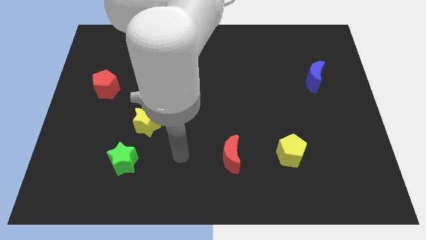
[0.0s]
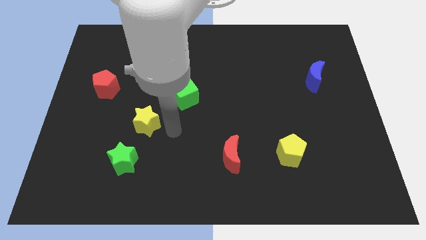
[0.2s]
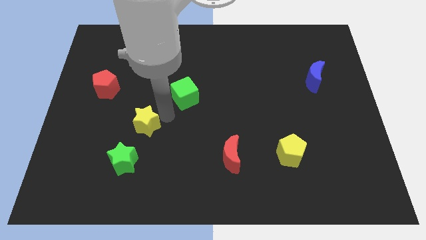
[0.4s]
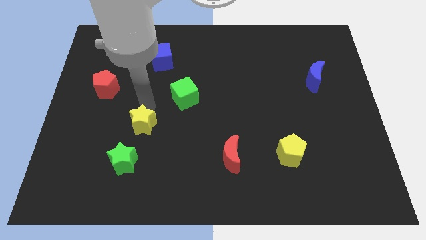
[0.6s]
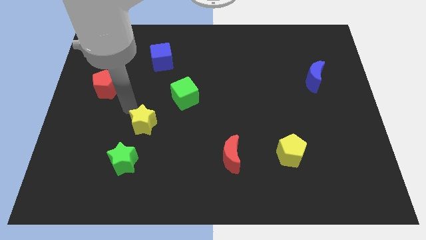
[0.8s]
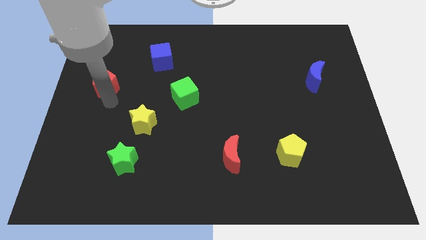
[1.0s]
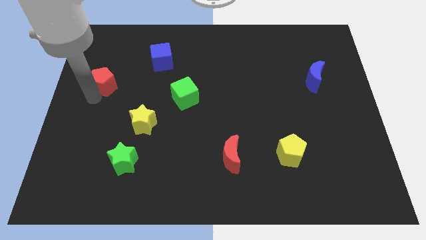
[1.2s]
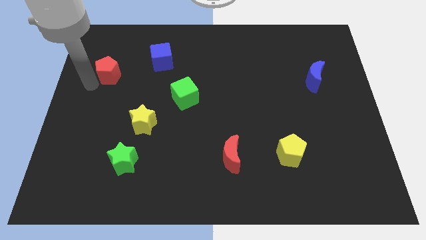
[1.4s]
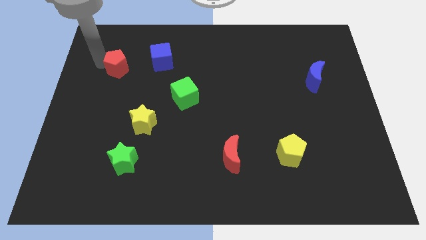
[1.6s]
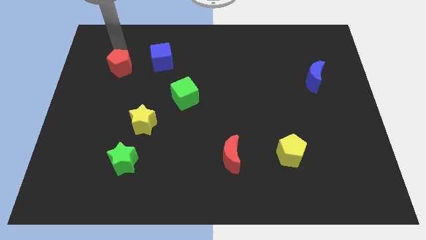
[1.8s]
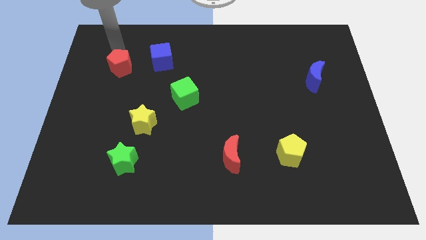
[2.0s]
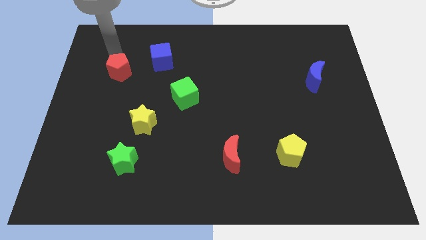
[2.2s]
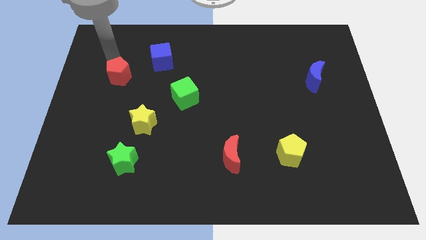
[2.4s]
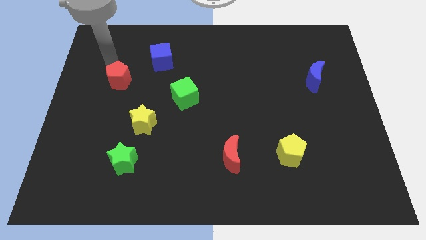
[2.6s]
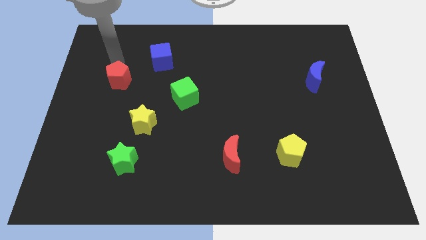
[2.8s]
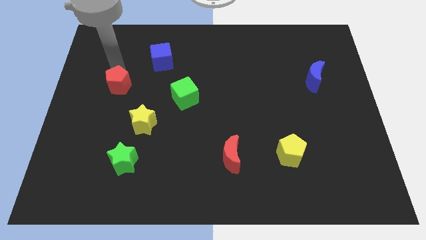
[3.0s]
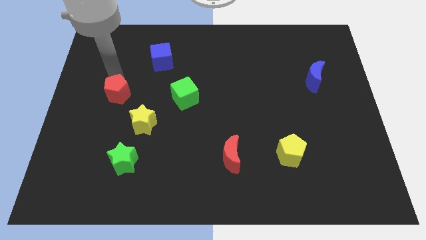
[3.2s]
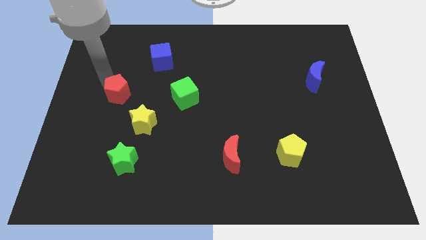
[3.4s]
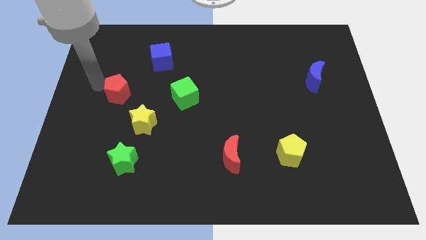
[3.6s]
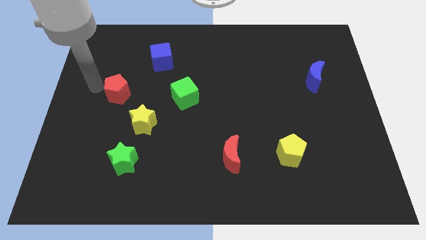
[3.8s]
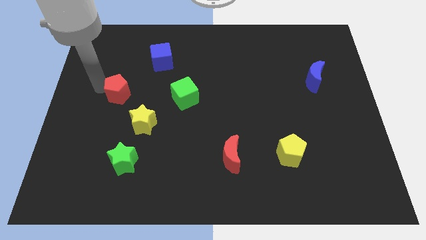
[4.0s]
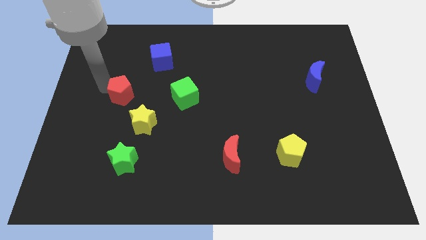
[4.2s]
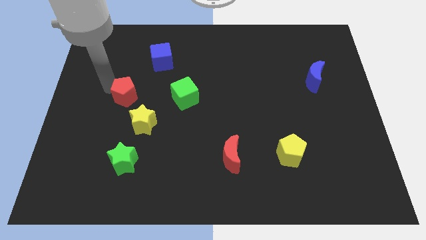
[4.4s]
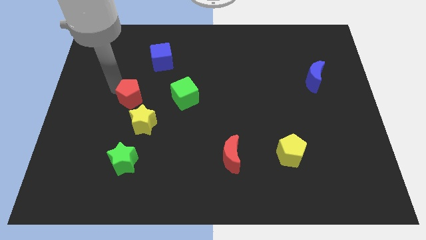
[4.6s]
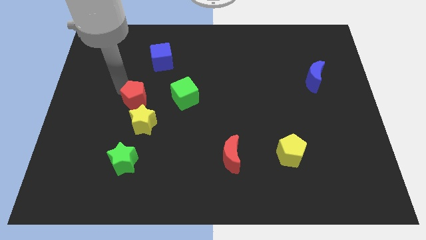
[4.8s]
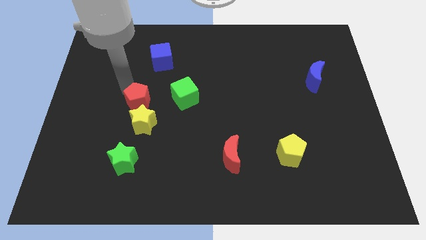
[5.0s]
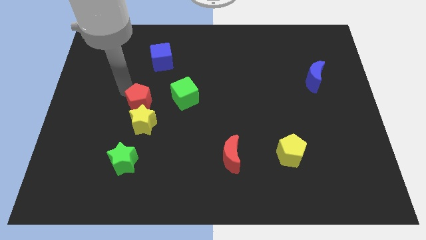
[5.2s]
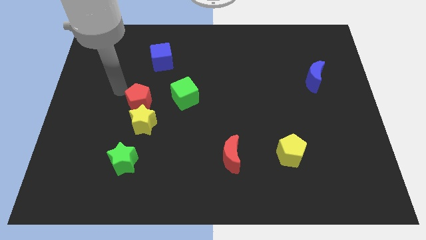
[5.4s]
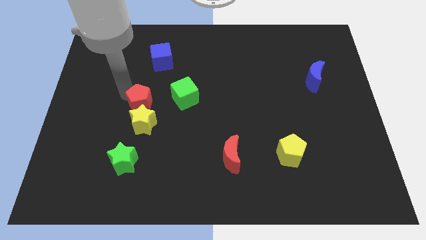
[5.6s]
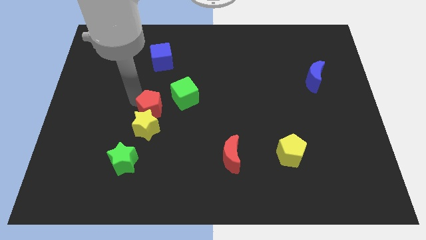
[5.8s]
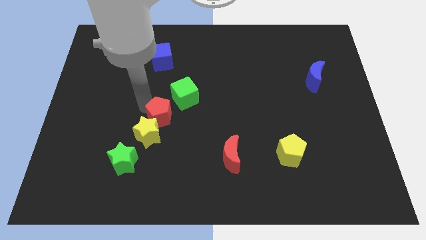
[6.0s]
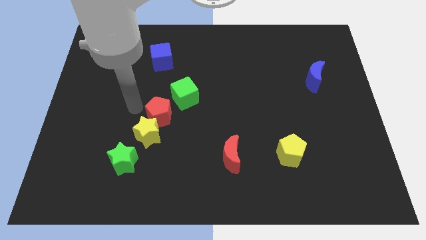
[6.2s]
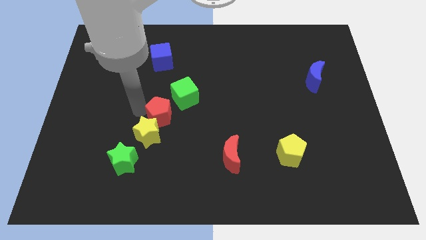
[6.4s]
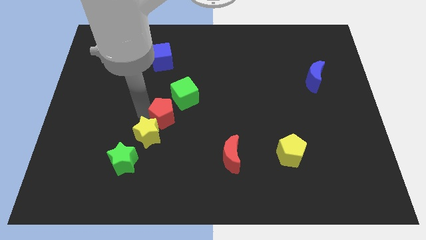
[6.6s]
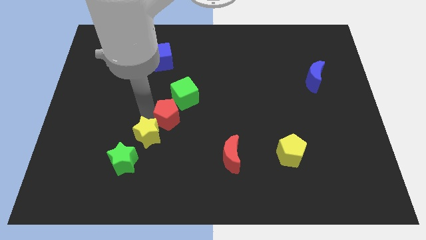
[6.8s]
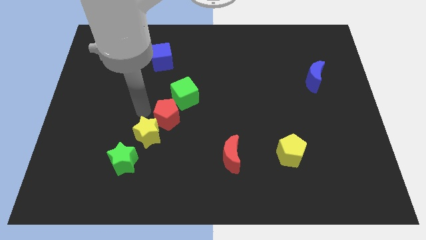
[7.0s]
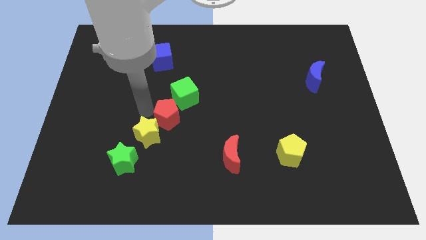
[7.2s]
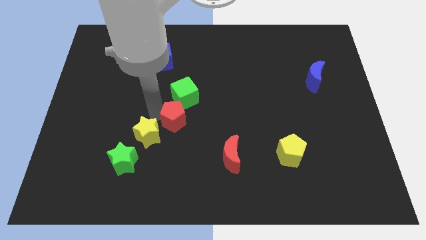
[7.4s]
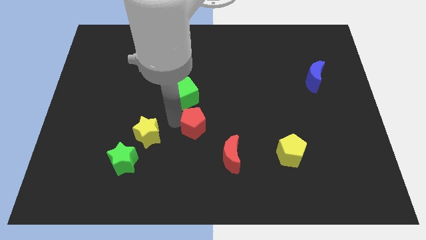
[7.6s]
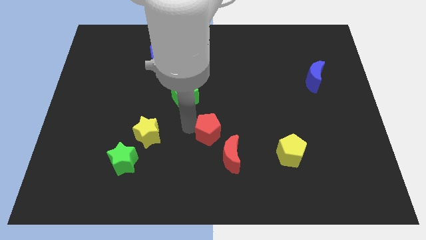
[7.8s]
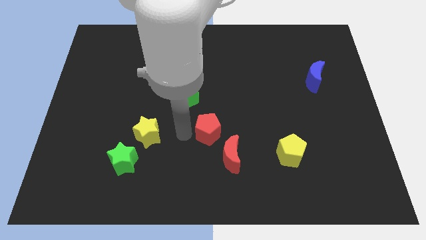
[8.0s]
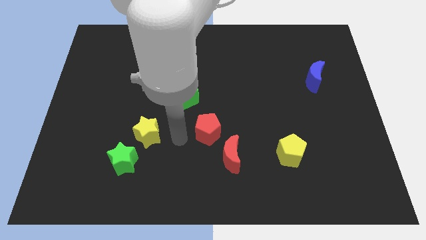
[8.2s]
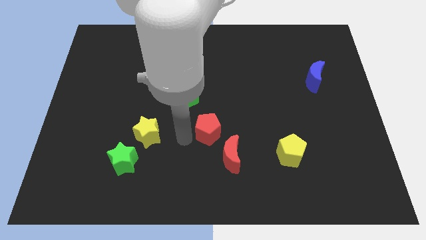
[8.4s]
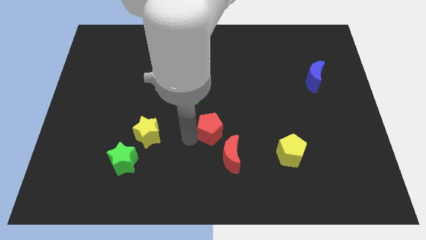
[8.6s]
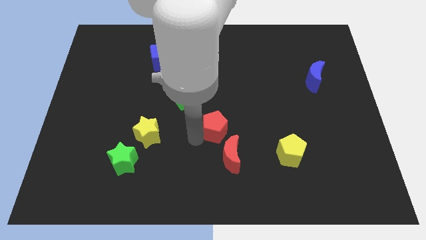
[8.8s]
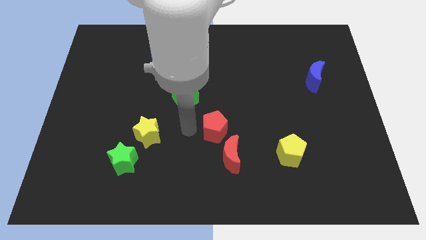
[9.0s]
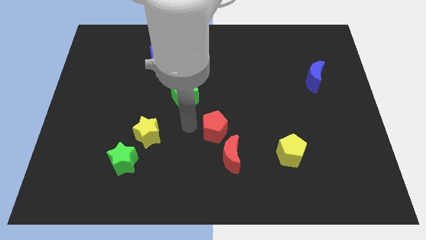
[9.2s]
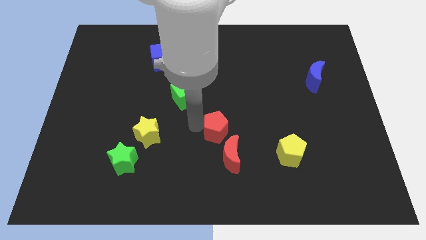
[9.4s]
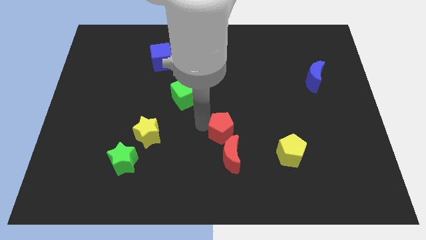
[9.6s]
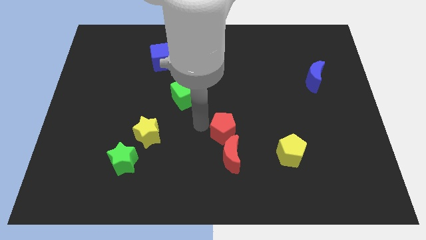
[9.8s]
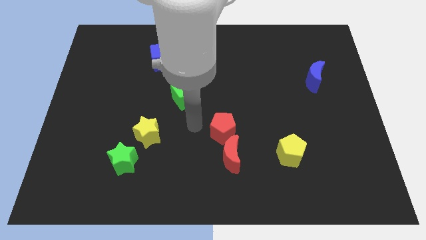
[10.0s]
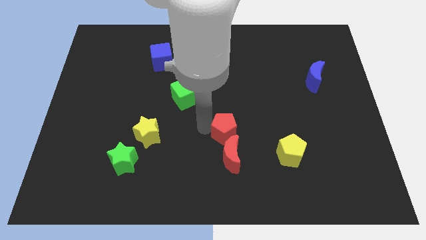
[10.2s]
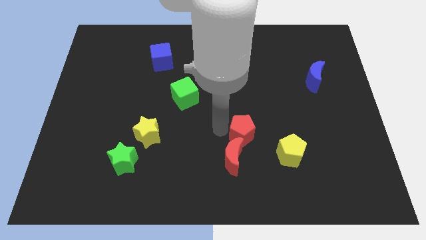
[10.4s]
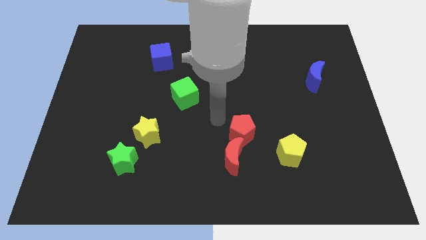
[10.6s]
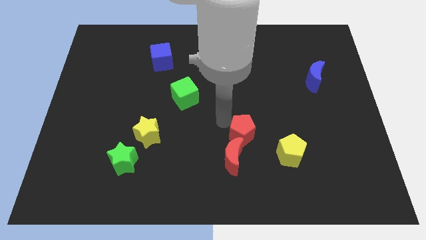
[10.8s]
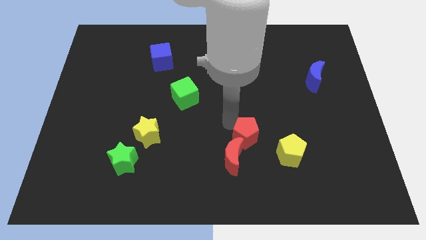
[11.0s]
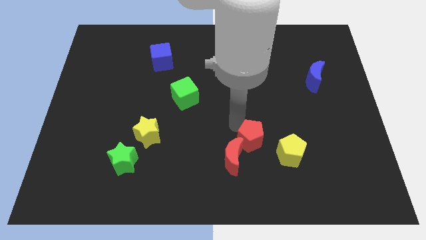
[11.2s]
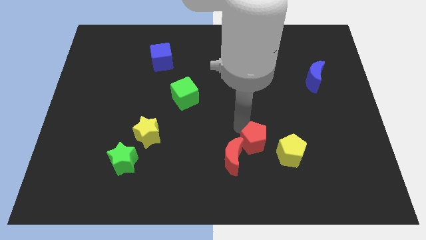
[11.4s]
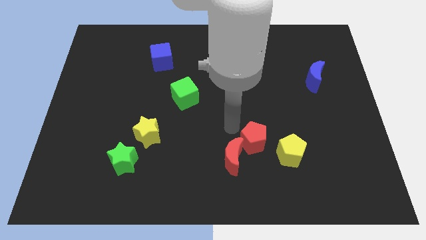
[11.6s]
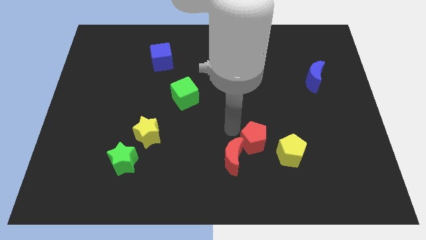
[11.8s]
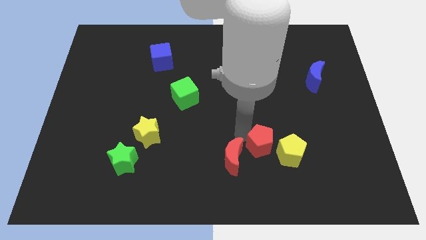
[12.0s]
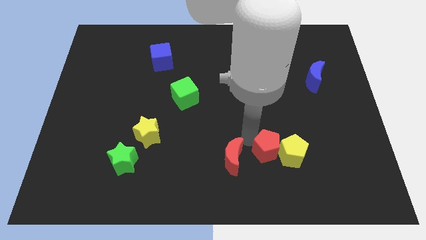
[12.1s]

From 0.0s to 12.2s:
put the red pentagon close to the yellow pentagon

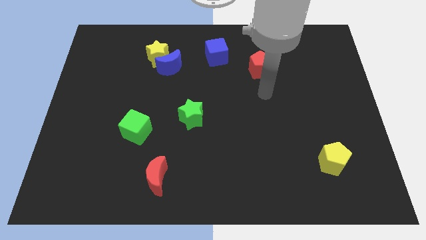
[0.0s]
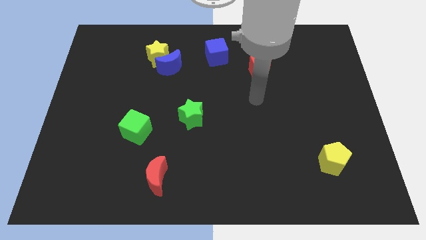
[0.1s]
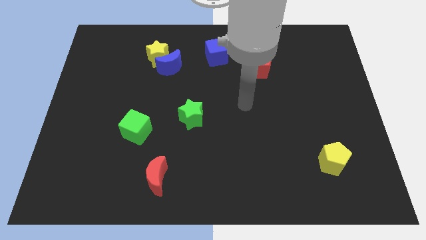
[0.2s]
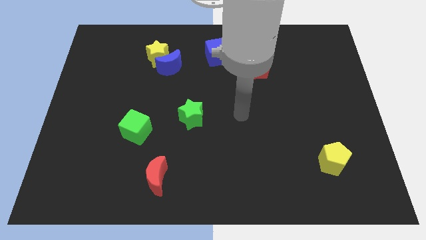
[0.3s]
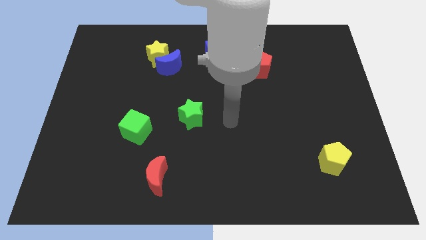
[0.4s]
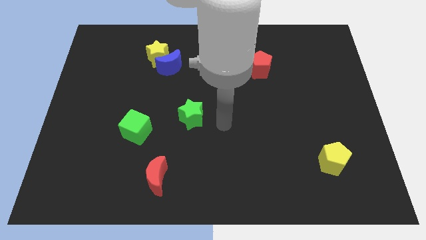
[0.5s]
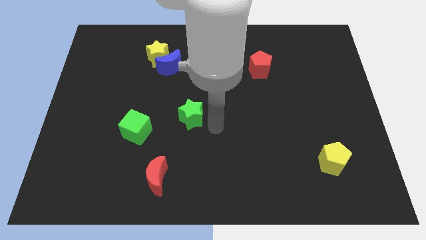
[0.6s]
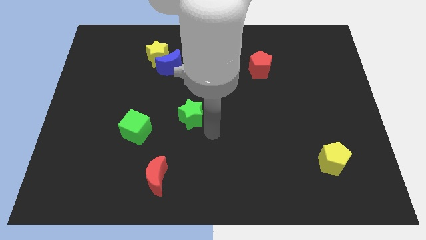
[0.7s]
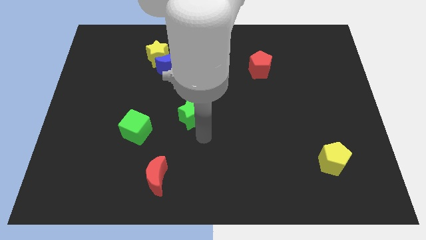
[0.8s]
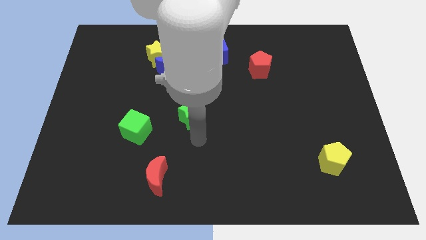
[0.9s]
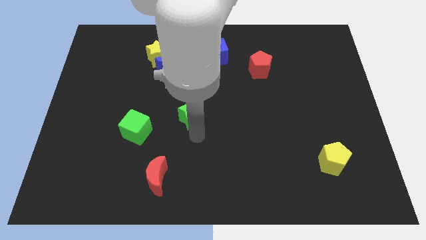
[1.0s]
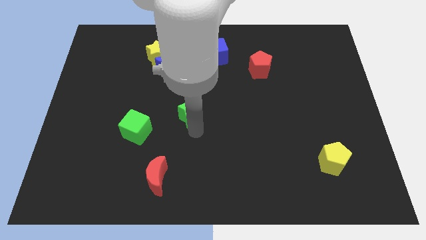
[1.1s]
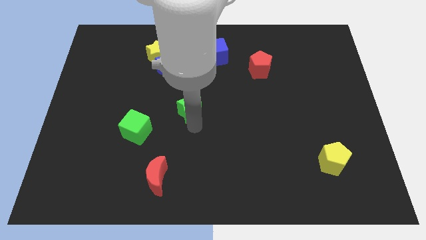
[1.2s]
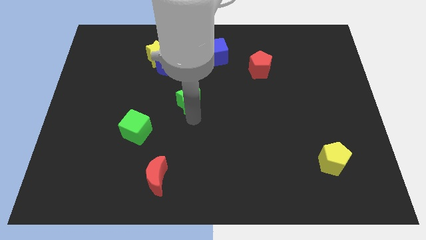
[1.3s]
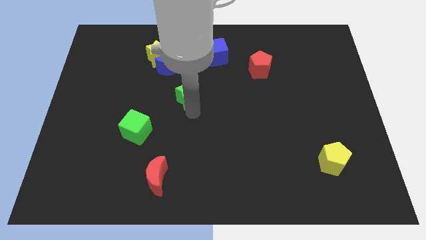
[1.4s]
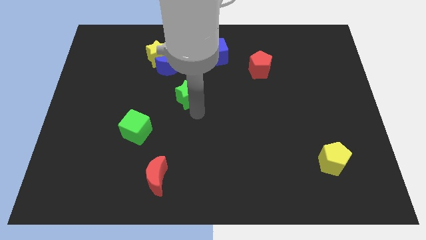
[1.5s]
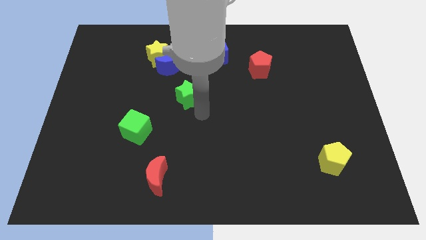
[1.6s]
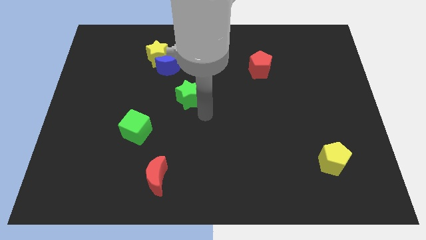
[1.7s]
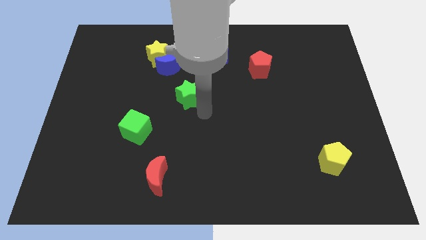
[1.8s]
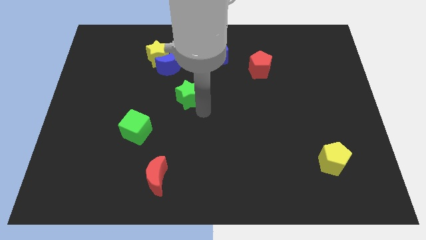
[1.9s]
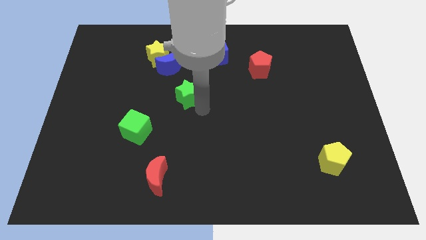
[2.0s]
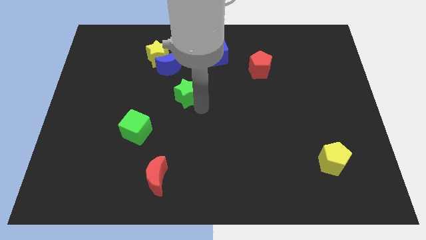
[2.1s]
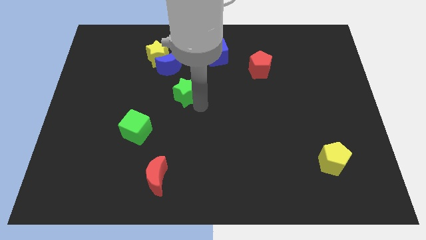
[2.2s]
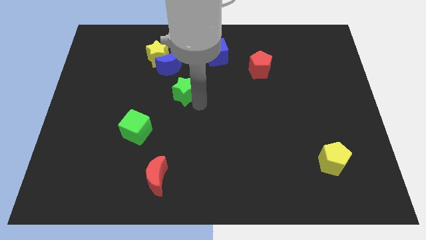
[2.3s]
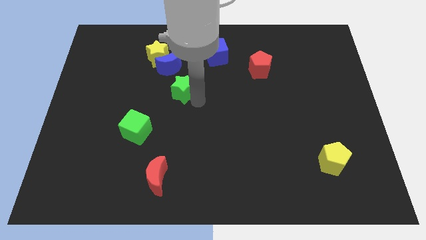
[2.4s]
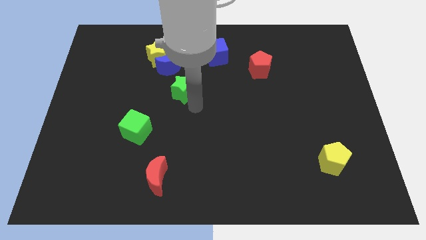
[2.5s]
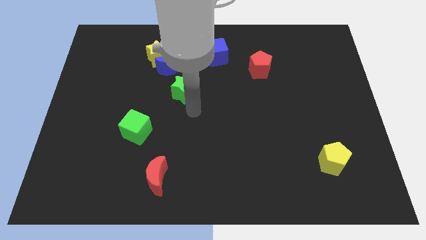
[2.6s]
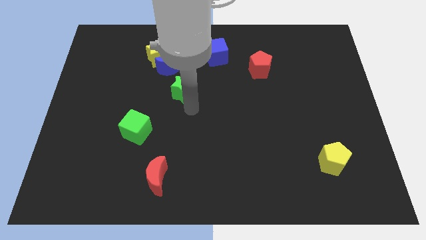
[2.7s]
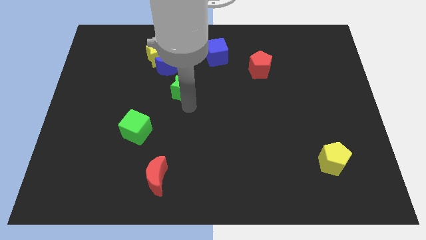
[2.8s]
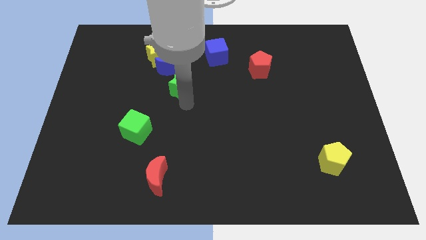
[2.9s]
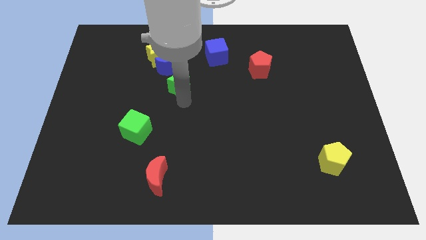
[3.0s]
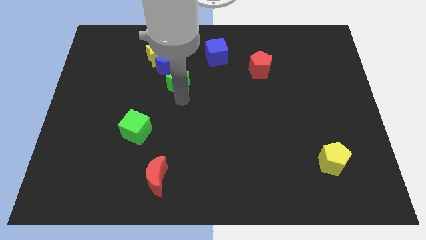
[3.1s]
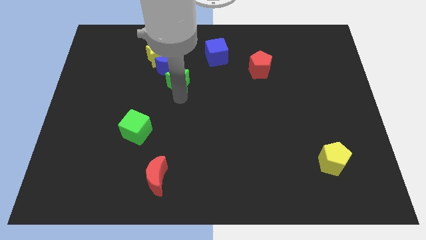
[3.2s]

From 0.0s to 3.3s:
slide the green star to the blue moon
